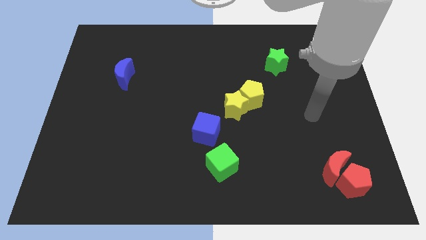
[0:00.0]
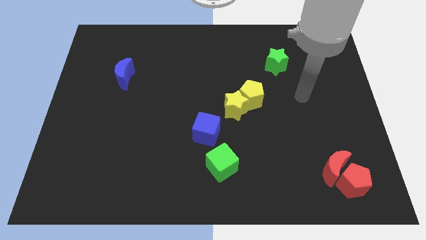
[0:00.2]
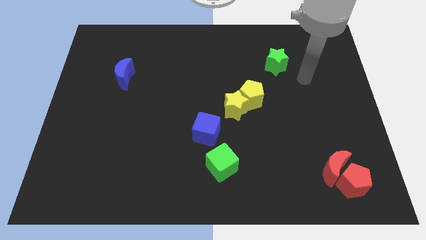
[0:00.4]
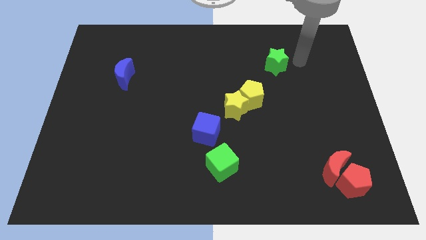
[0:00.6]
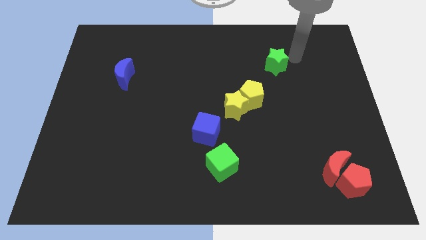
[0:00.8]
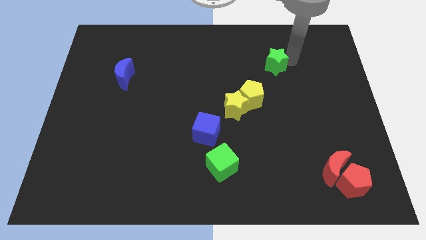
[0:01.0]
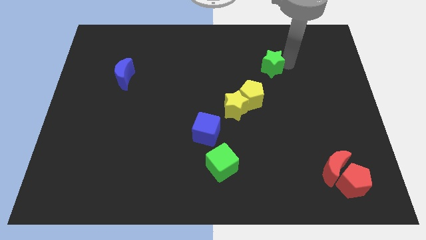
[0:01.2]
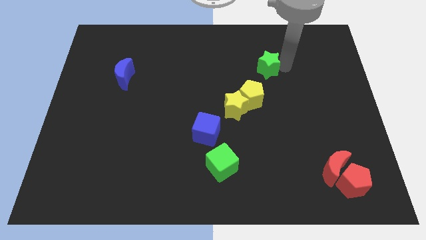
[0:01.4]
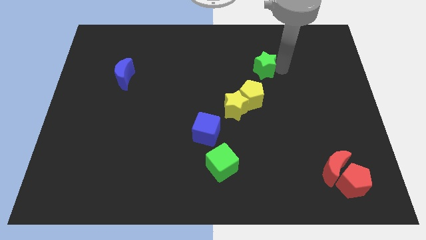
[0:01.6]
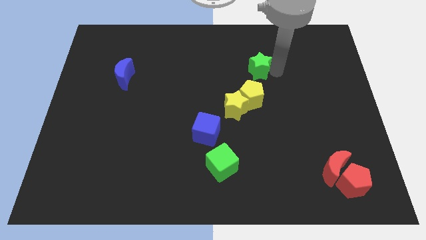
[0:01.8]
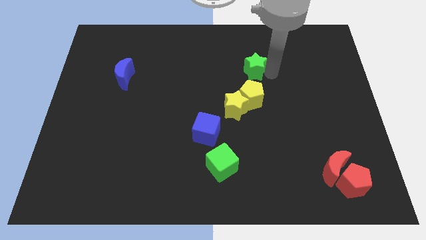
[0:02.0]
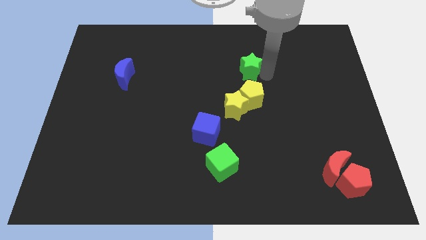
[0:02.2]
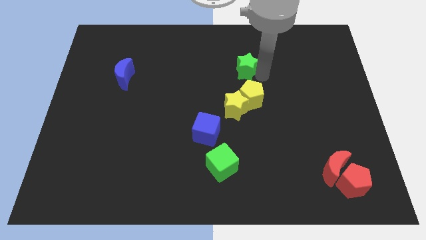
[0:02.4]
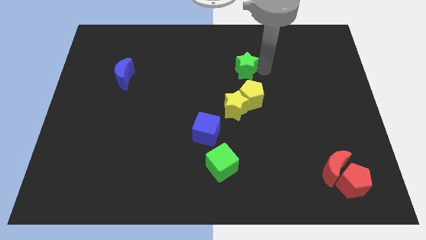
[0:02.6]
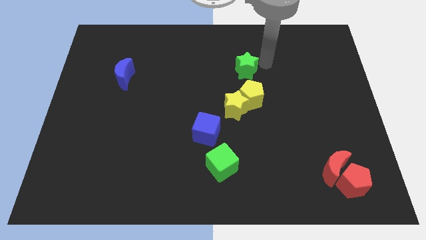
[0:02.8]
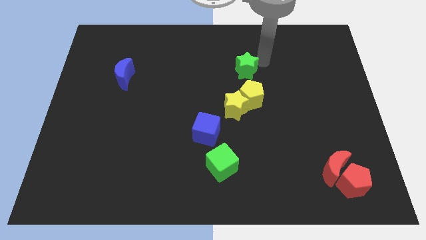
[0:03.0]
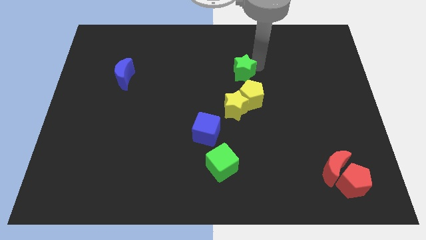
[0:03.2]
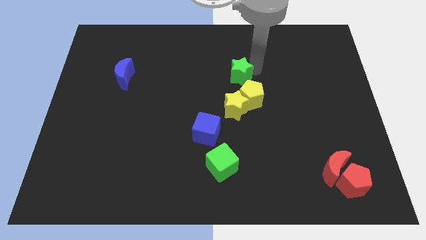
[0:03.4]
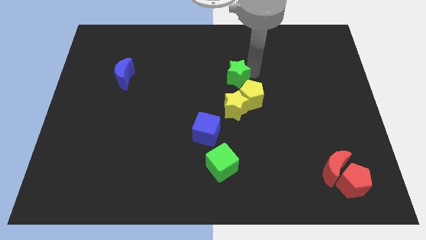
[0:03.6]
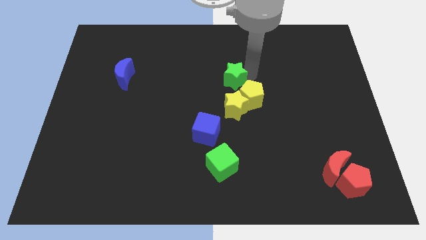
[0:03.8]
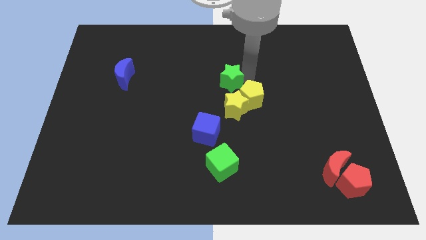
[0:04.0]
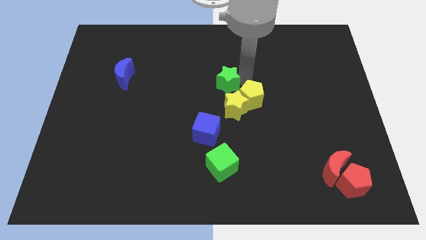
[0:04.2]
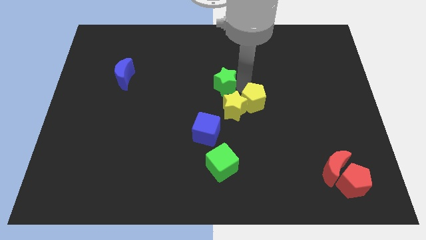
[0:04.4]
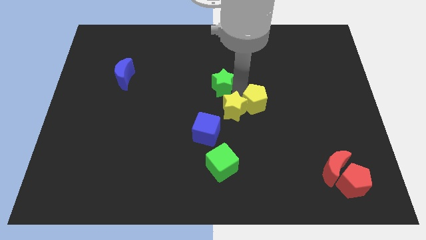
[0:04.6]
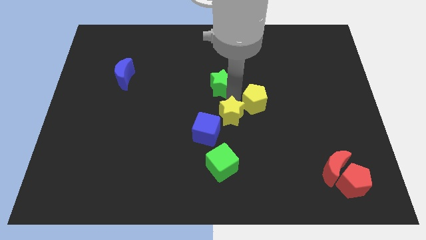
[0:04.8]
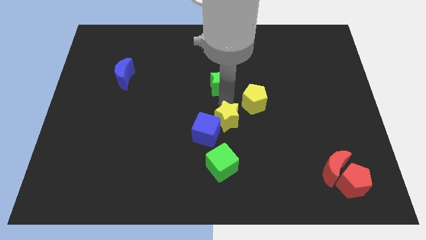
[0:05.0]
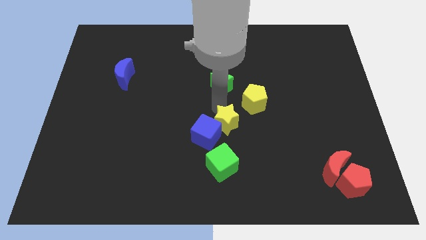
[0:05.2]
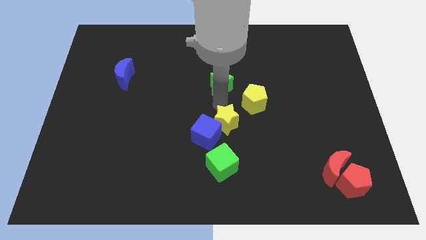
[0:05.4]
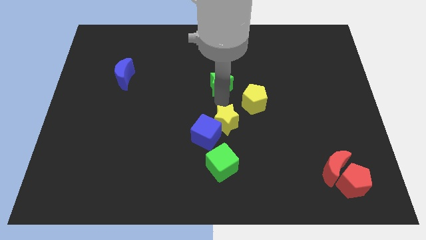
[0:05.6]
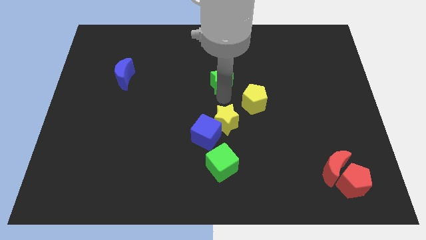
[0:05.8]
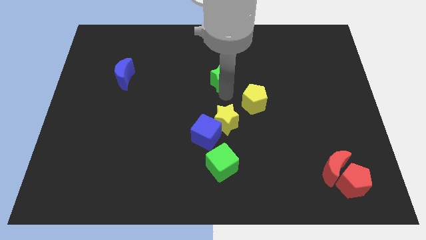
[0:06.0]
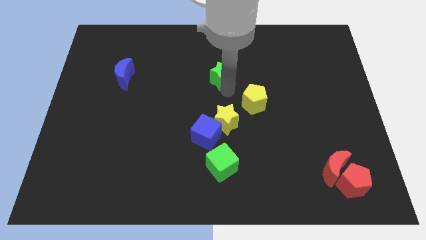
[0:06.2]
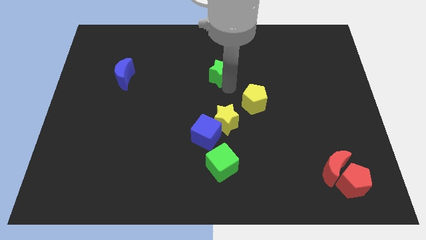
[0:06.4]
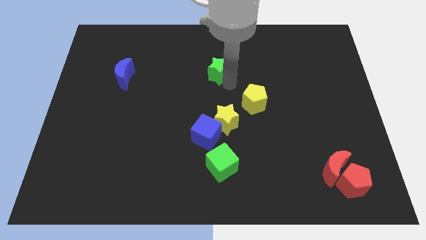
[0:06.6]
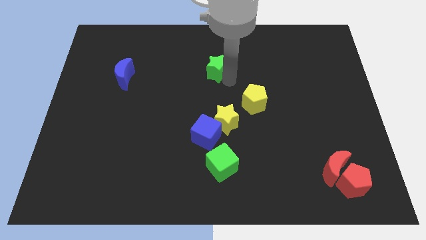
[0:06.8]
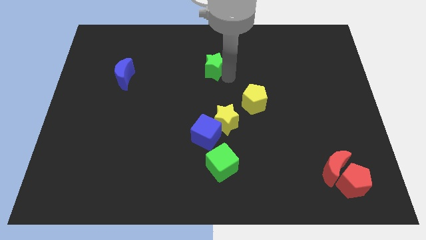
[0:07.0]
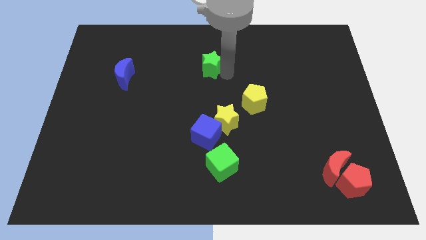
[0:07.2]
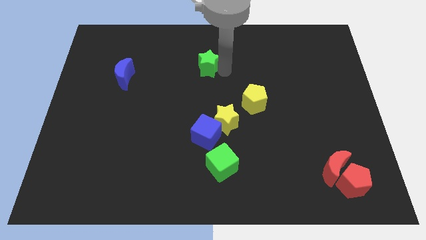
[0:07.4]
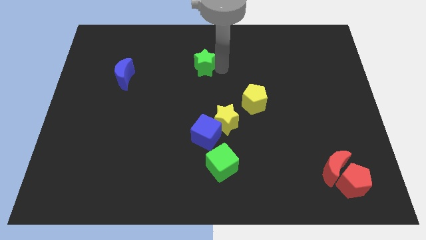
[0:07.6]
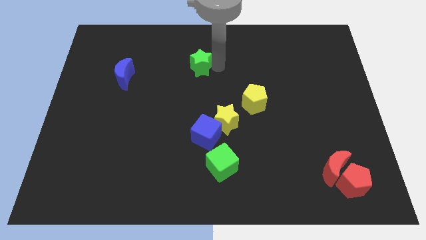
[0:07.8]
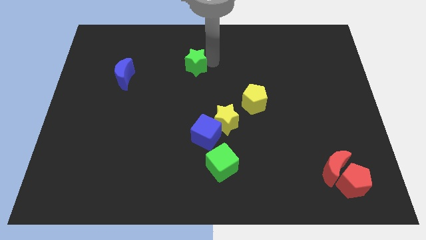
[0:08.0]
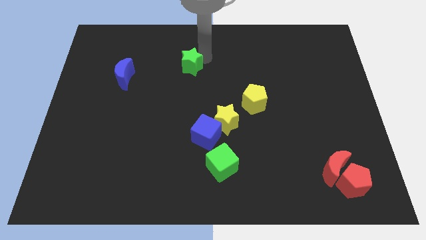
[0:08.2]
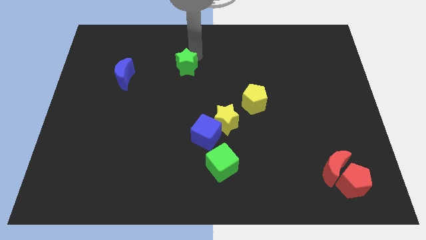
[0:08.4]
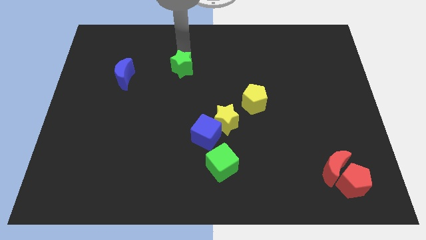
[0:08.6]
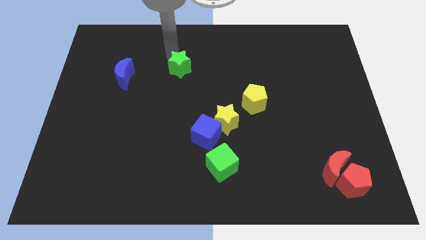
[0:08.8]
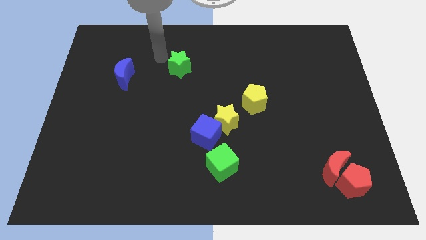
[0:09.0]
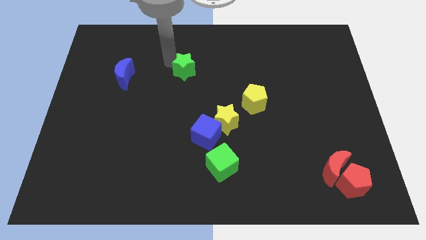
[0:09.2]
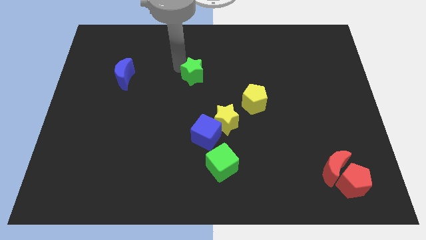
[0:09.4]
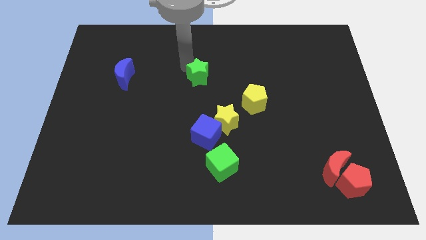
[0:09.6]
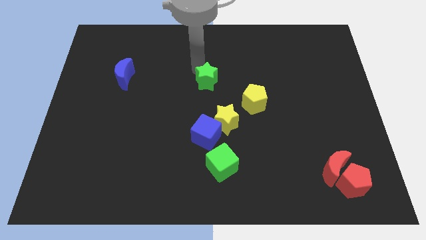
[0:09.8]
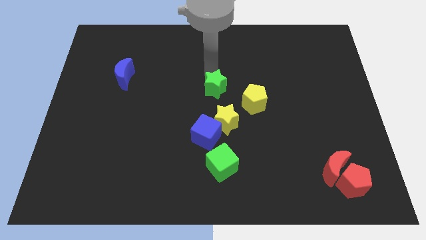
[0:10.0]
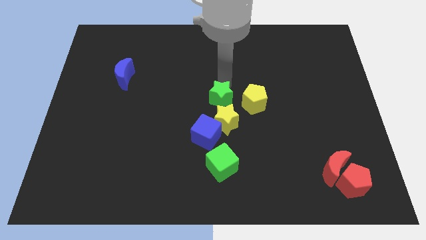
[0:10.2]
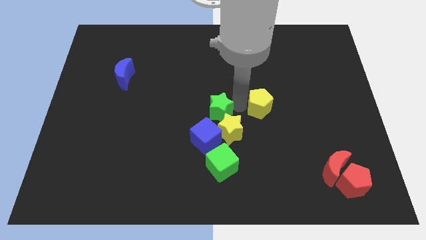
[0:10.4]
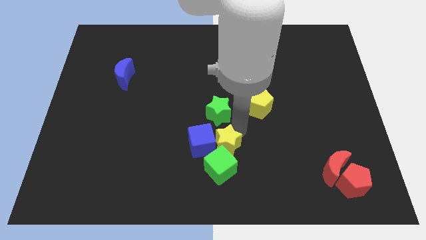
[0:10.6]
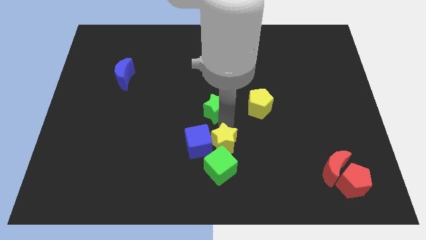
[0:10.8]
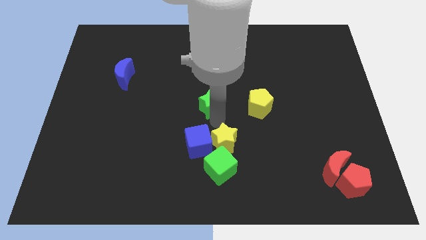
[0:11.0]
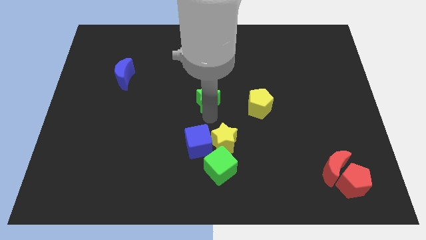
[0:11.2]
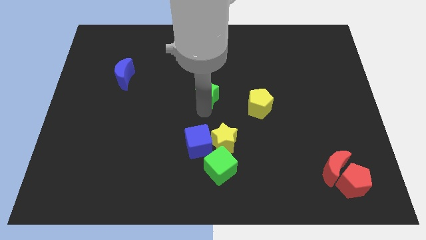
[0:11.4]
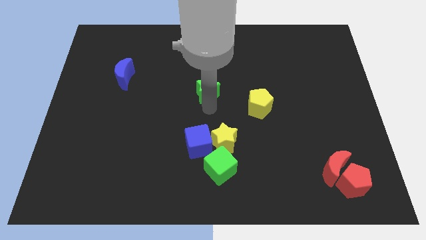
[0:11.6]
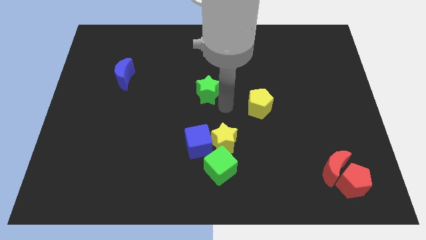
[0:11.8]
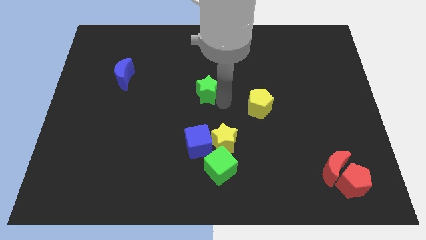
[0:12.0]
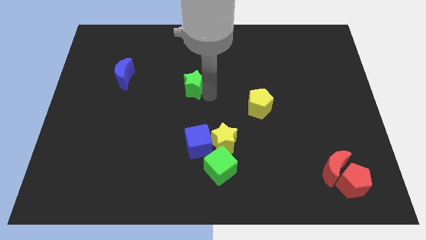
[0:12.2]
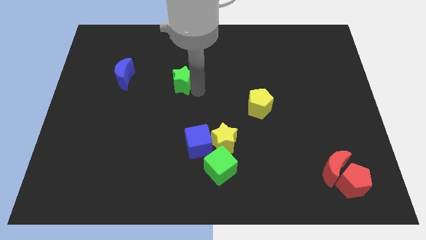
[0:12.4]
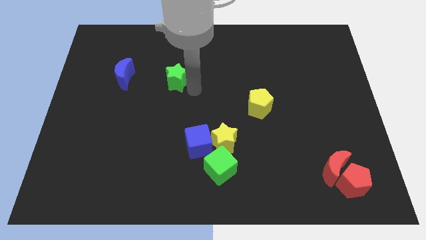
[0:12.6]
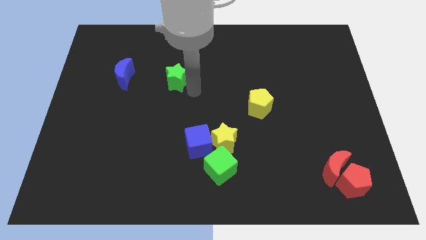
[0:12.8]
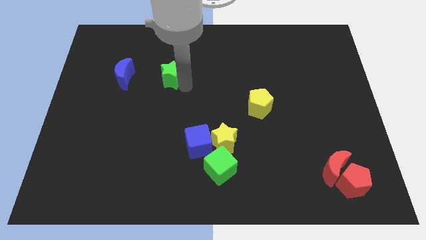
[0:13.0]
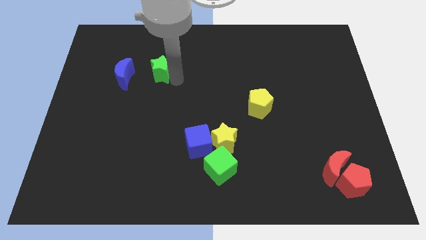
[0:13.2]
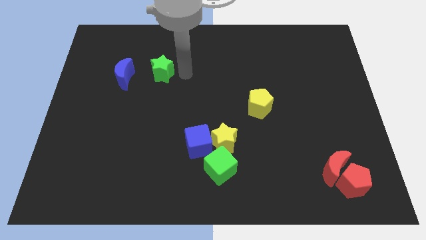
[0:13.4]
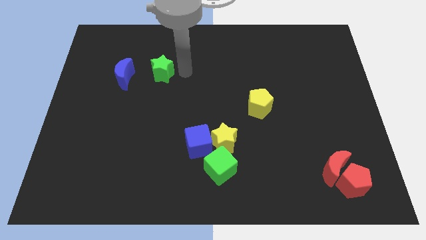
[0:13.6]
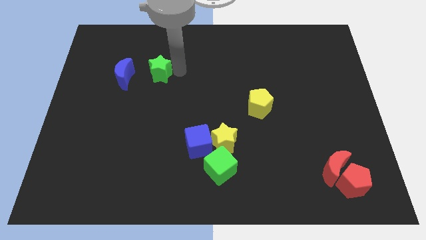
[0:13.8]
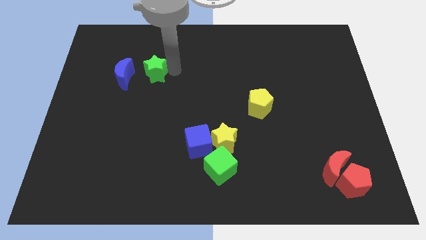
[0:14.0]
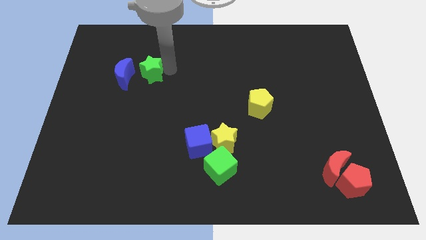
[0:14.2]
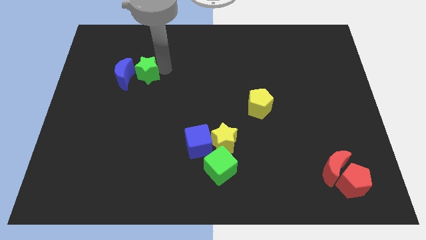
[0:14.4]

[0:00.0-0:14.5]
slide the green star towards the blue moon

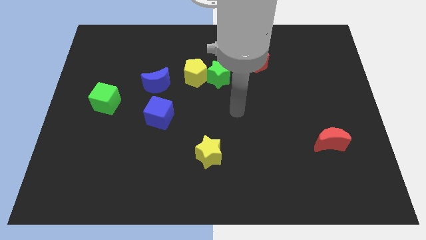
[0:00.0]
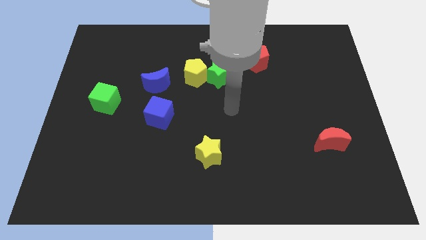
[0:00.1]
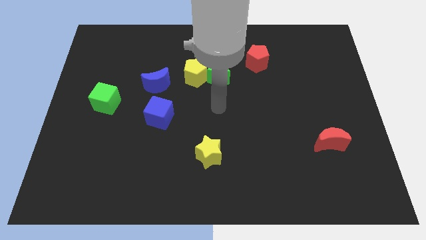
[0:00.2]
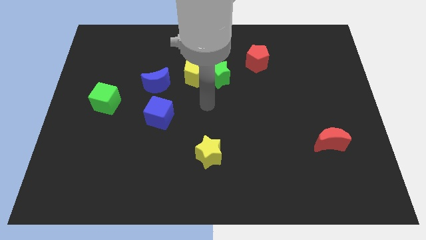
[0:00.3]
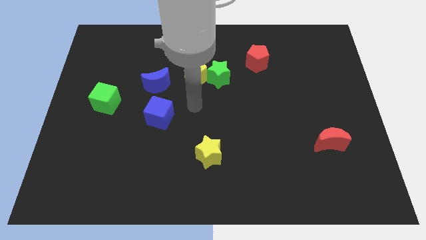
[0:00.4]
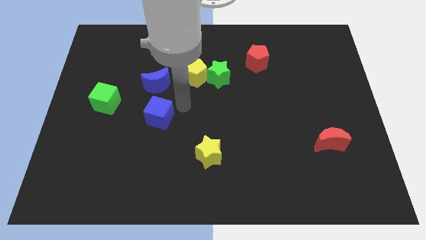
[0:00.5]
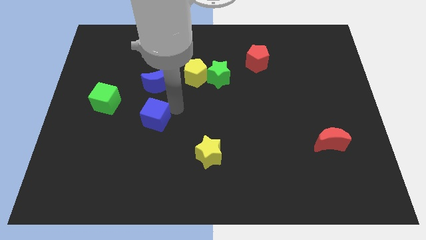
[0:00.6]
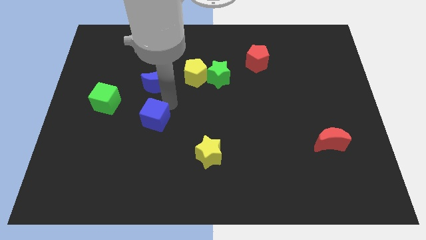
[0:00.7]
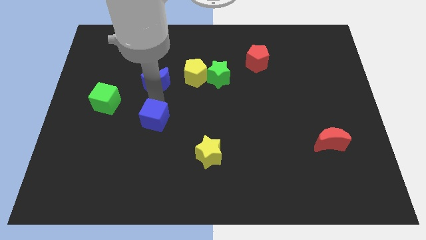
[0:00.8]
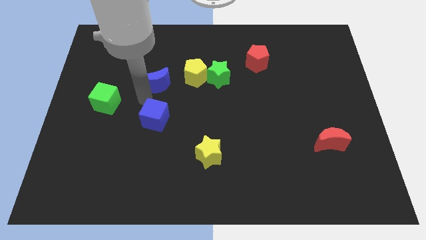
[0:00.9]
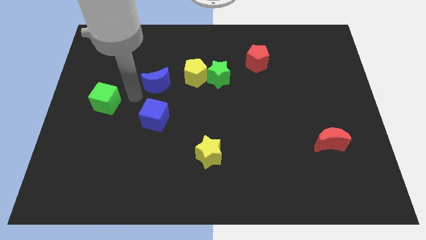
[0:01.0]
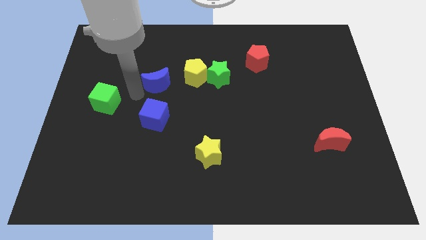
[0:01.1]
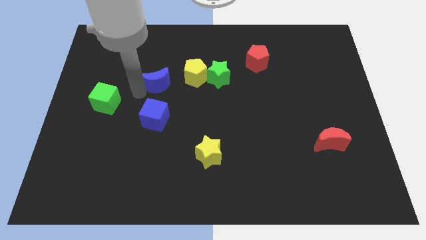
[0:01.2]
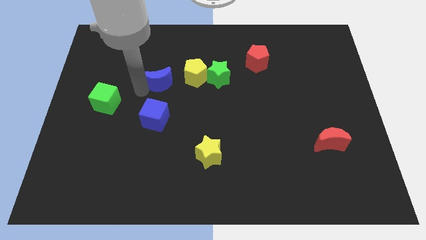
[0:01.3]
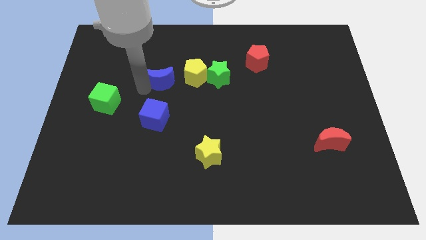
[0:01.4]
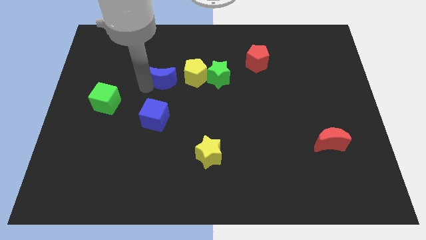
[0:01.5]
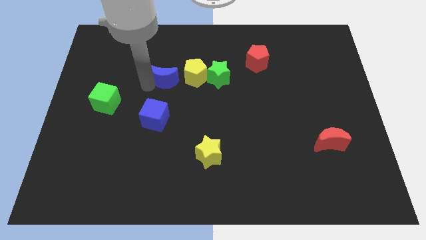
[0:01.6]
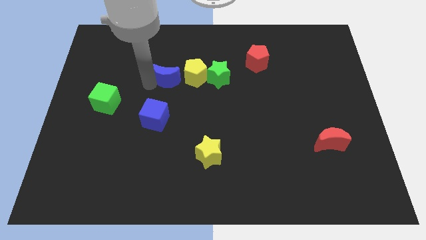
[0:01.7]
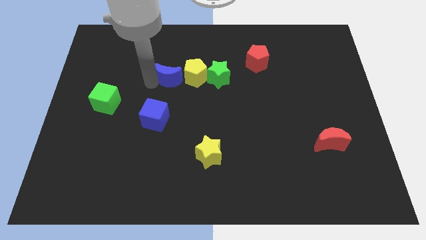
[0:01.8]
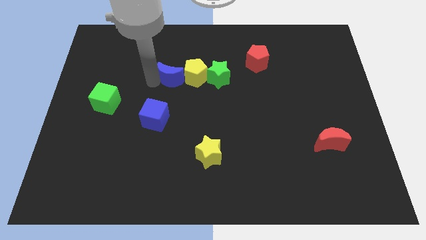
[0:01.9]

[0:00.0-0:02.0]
put the blue moon to the yellow pentagon
